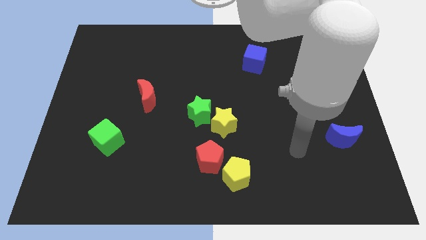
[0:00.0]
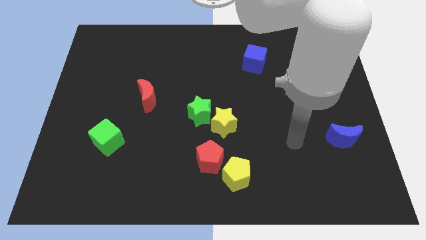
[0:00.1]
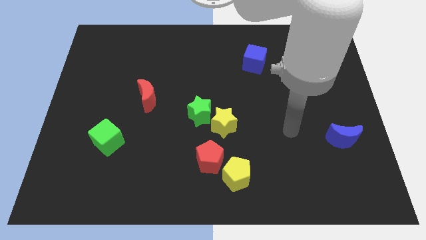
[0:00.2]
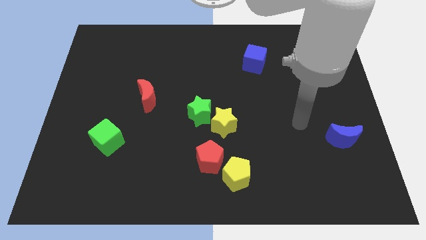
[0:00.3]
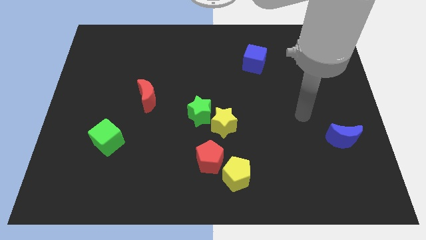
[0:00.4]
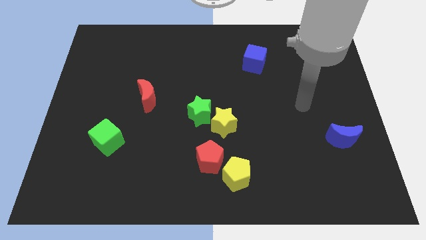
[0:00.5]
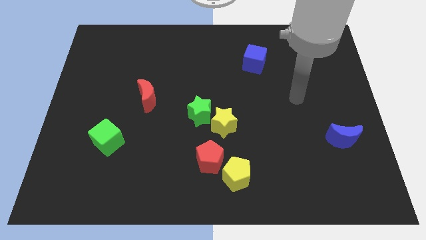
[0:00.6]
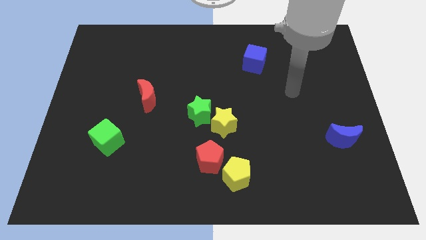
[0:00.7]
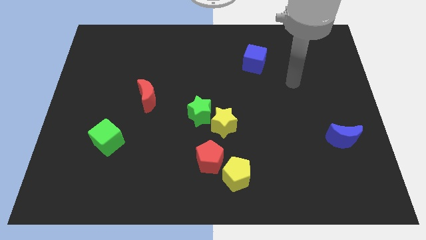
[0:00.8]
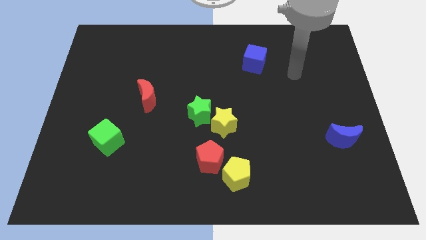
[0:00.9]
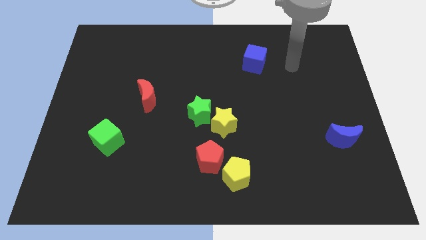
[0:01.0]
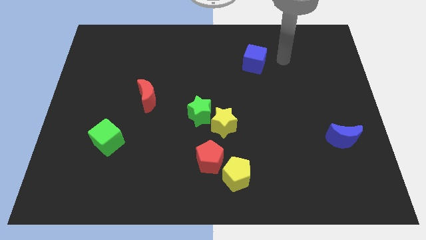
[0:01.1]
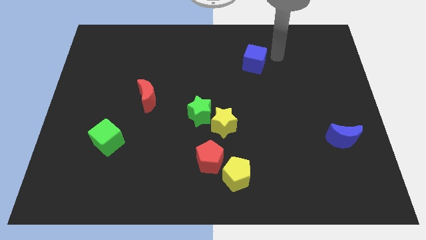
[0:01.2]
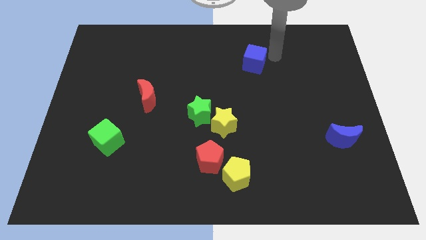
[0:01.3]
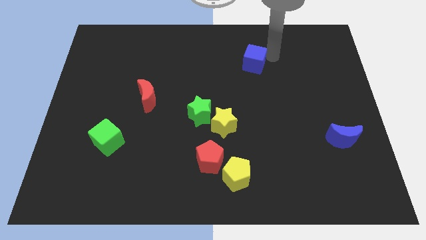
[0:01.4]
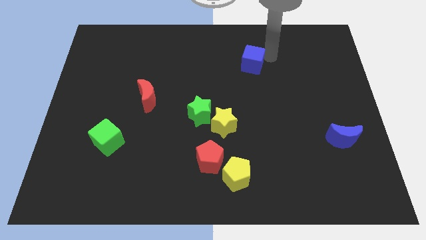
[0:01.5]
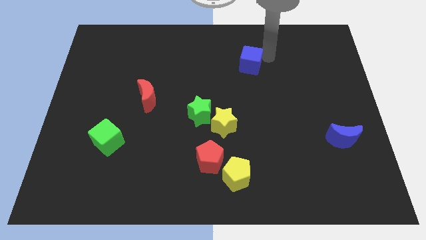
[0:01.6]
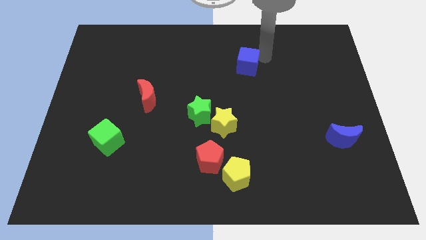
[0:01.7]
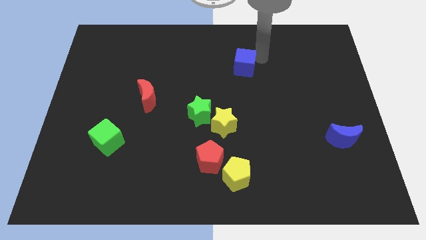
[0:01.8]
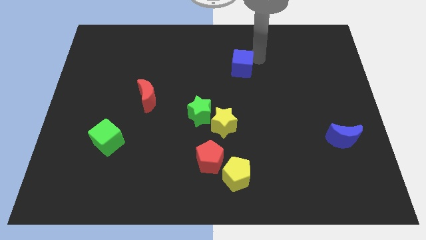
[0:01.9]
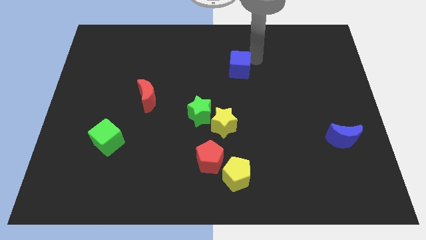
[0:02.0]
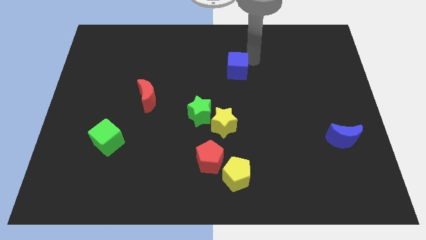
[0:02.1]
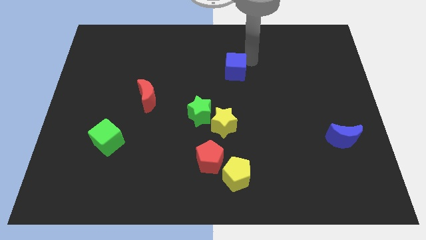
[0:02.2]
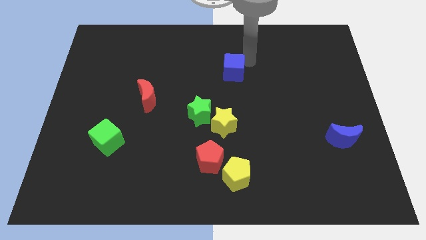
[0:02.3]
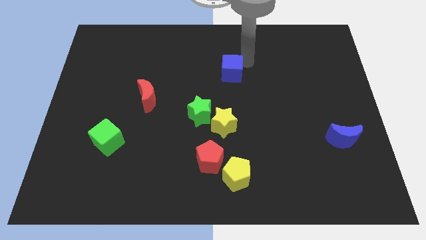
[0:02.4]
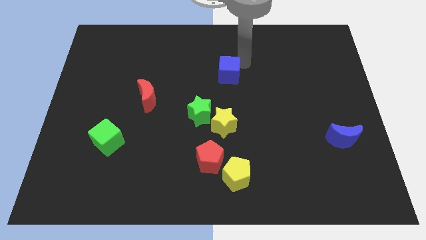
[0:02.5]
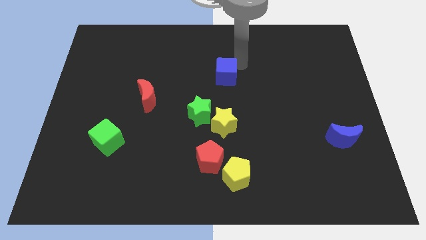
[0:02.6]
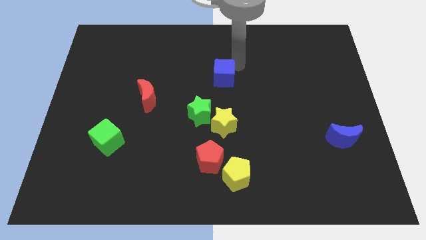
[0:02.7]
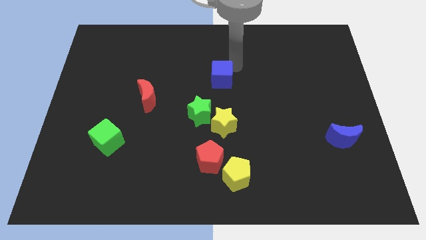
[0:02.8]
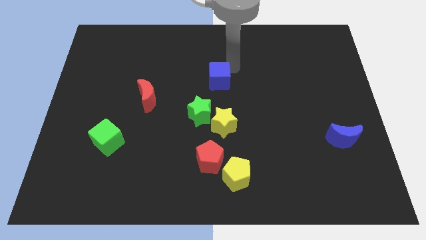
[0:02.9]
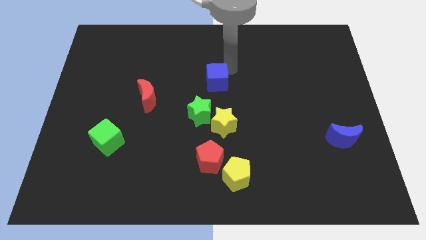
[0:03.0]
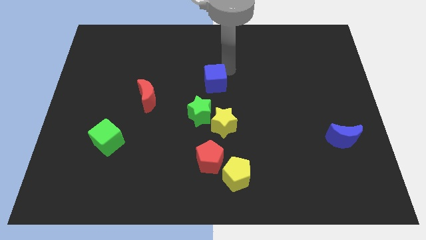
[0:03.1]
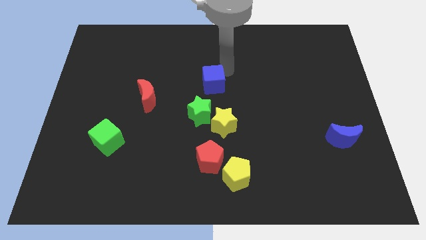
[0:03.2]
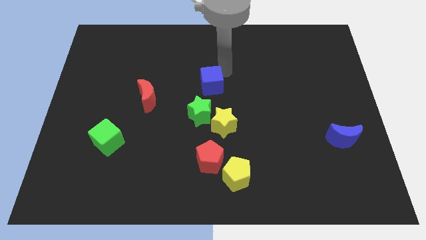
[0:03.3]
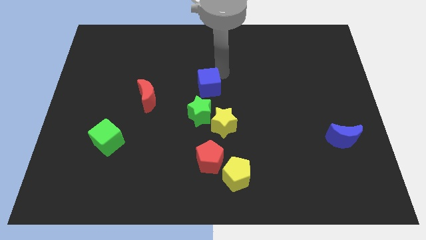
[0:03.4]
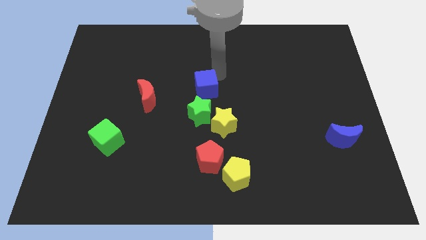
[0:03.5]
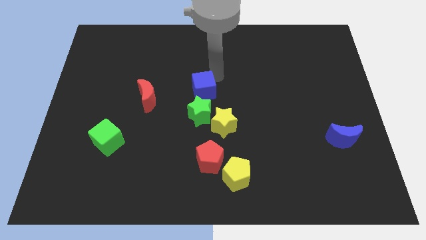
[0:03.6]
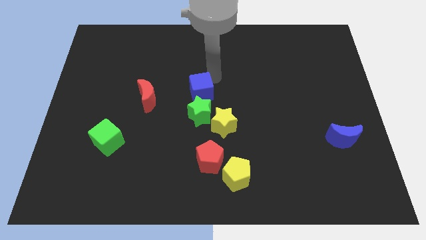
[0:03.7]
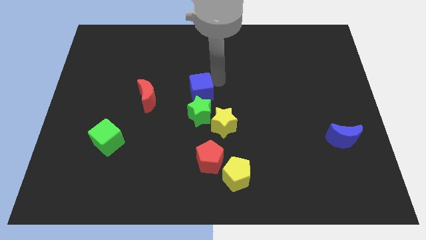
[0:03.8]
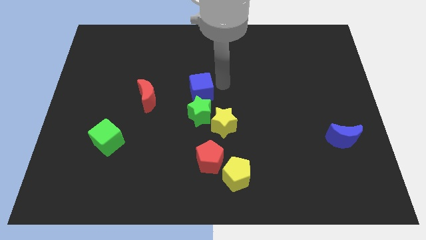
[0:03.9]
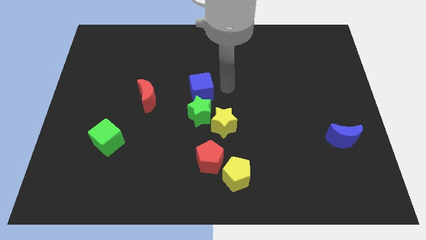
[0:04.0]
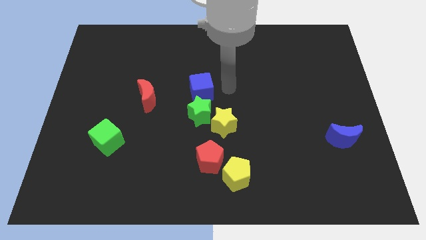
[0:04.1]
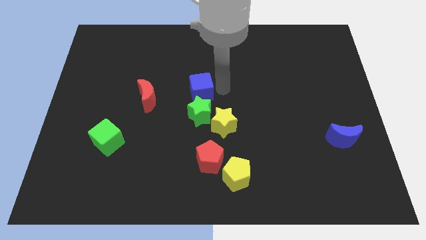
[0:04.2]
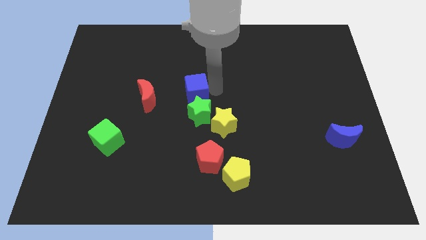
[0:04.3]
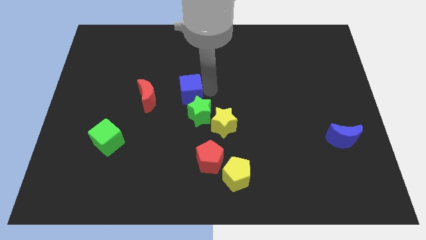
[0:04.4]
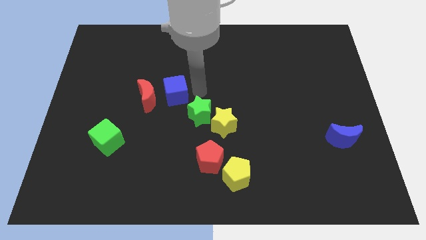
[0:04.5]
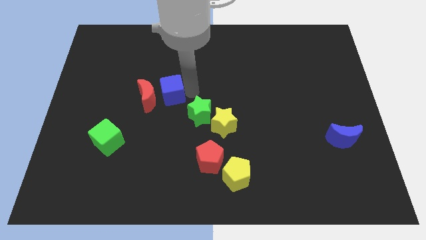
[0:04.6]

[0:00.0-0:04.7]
move the blue cube towards the red moon

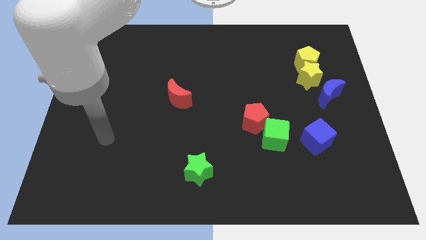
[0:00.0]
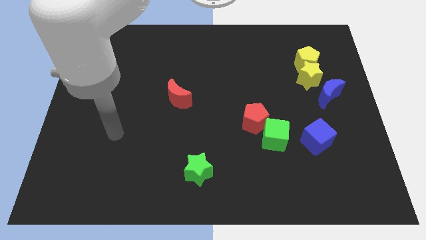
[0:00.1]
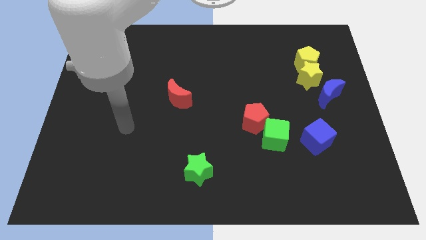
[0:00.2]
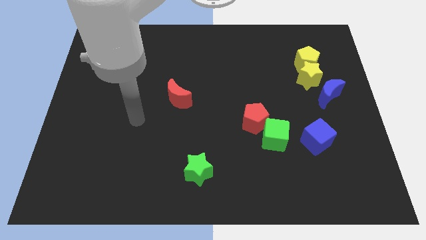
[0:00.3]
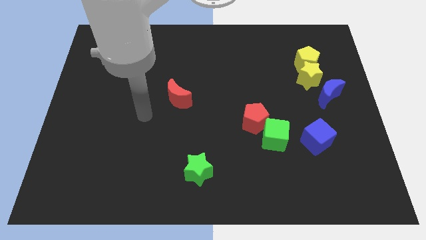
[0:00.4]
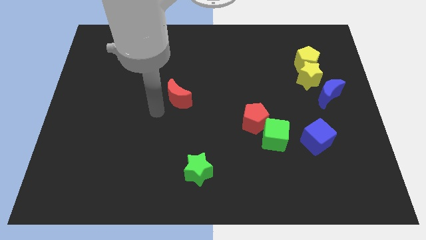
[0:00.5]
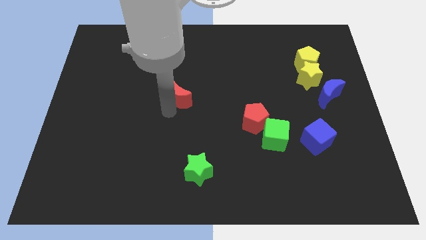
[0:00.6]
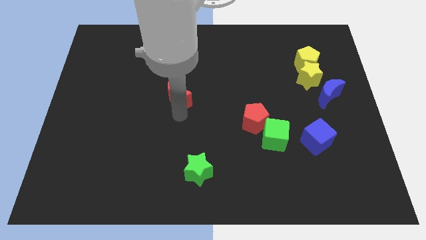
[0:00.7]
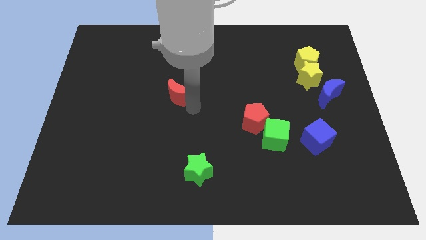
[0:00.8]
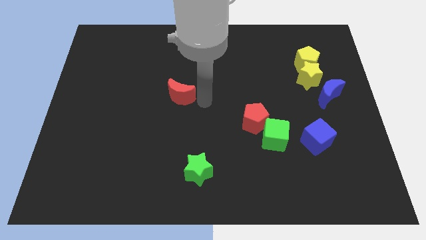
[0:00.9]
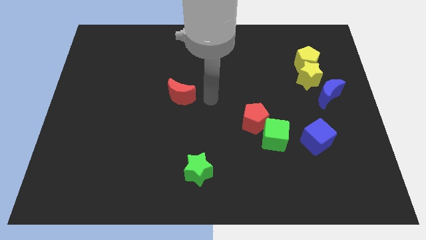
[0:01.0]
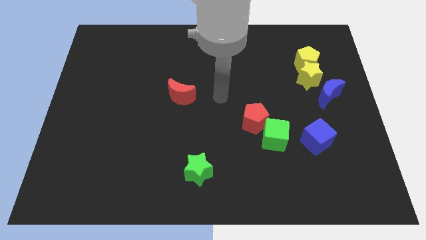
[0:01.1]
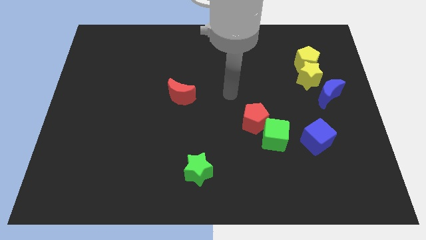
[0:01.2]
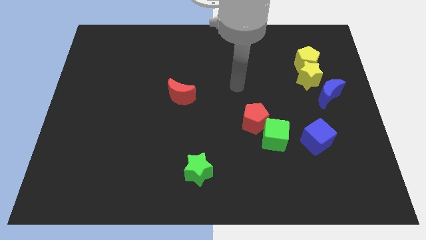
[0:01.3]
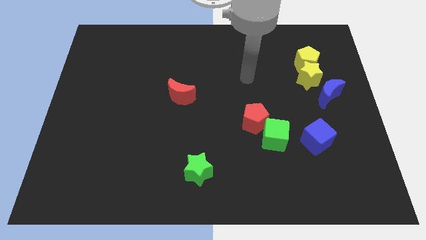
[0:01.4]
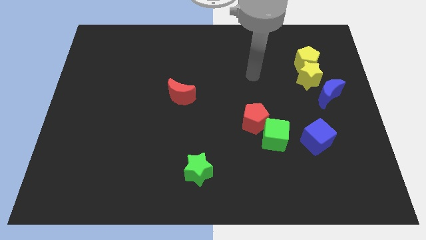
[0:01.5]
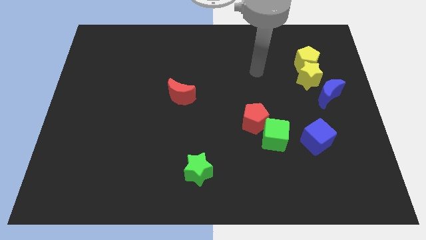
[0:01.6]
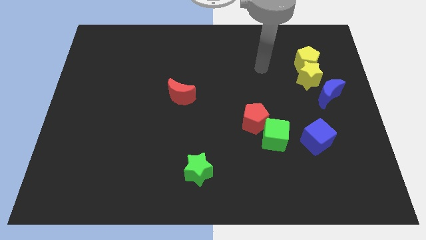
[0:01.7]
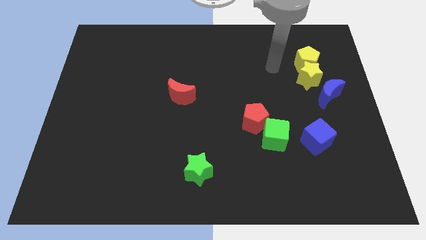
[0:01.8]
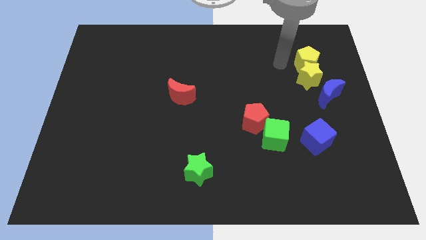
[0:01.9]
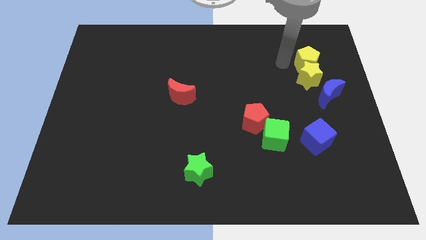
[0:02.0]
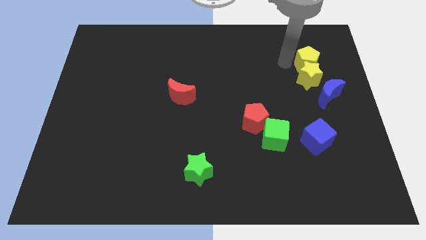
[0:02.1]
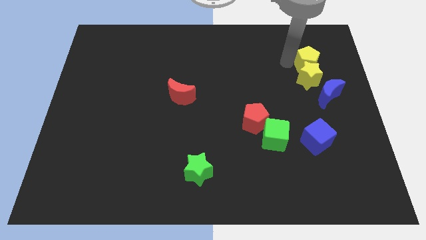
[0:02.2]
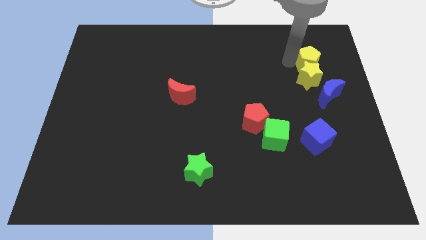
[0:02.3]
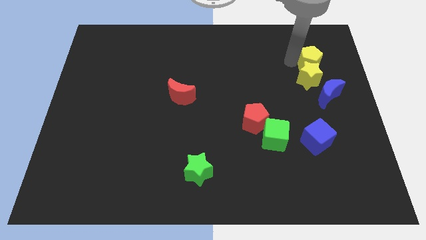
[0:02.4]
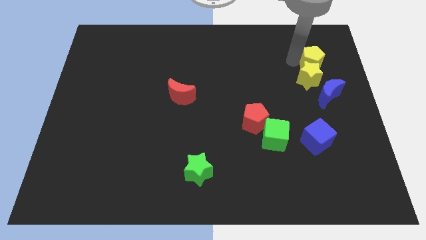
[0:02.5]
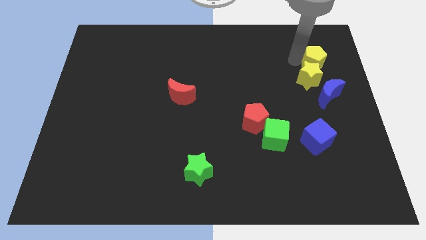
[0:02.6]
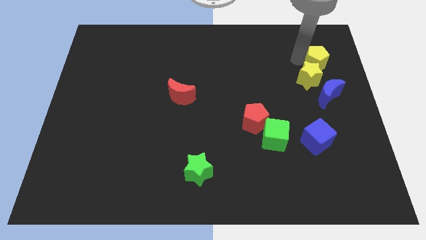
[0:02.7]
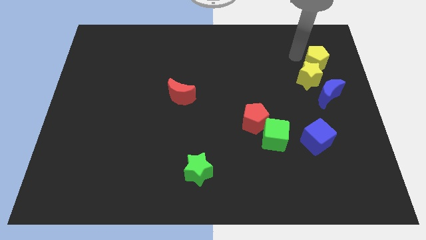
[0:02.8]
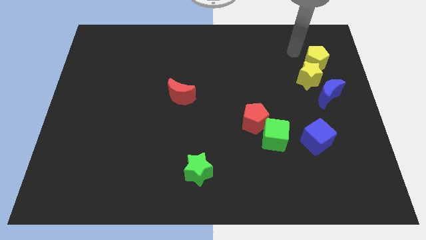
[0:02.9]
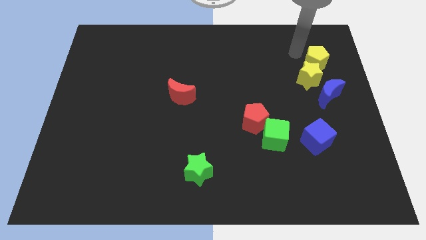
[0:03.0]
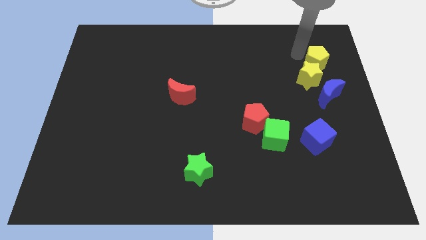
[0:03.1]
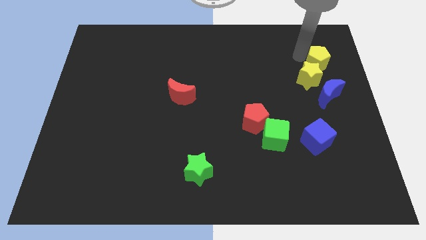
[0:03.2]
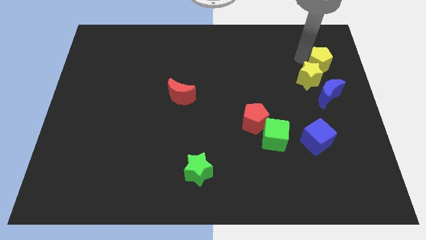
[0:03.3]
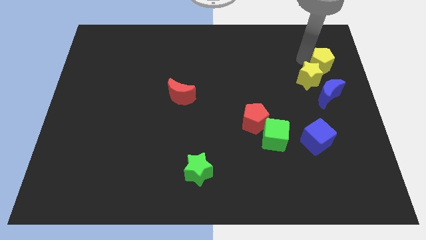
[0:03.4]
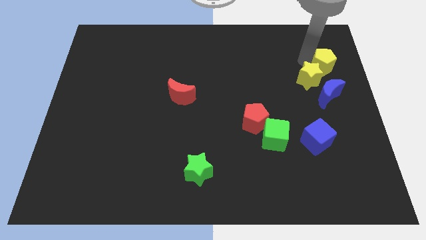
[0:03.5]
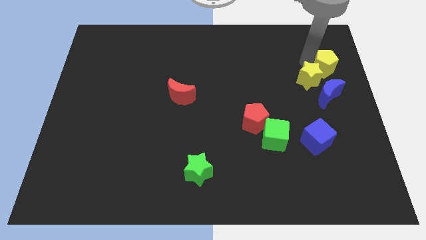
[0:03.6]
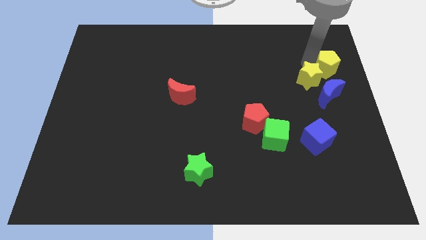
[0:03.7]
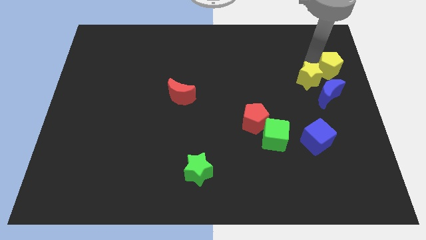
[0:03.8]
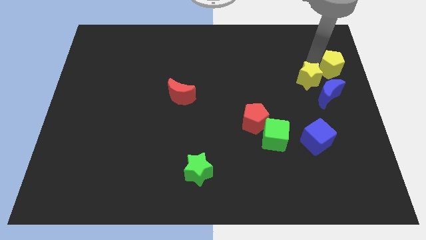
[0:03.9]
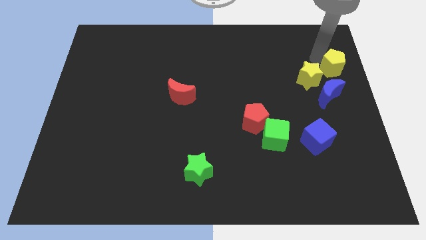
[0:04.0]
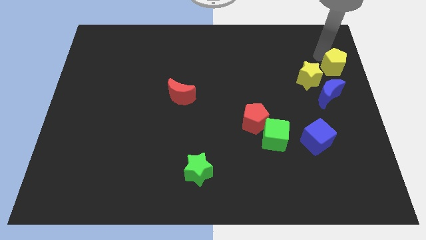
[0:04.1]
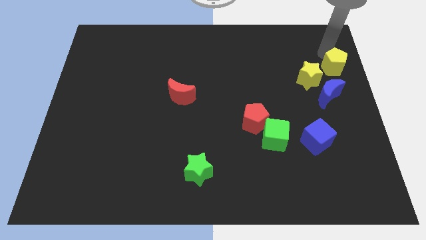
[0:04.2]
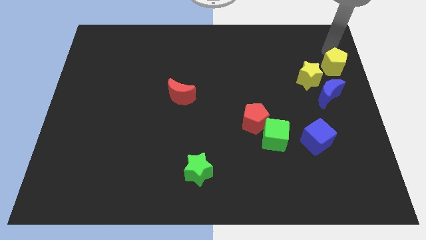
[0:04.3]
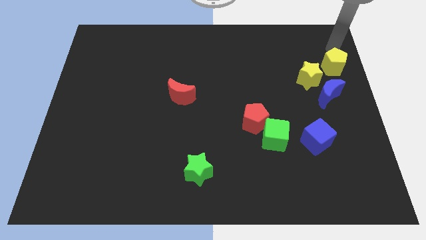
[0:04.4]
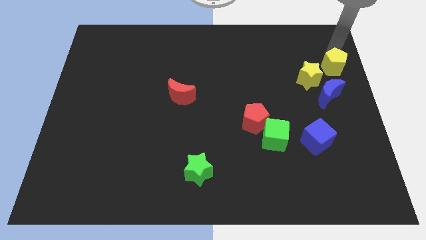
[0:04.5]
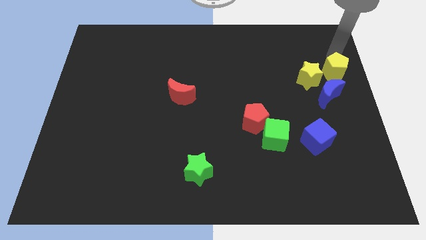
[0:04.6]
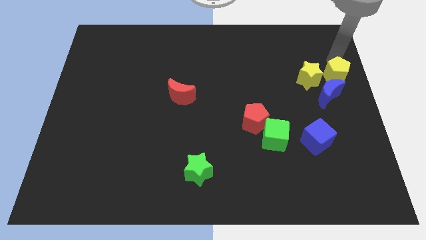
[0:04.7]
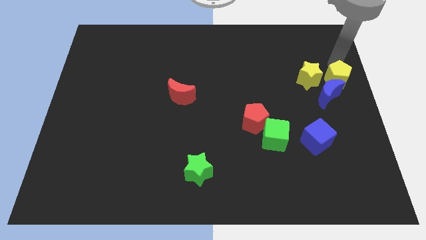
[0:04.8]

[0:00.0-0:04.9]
put the yellow pentagon to the blue moon
